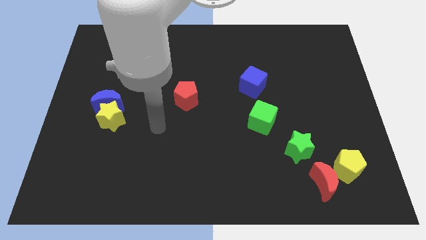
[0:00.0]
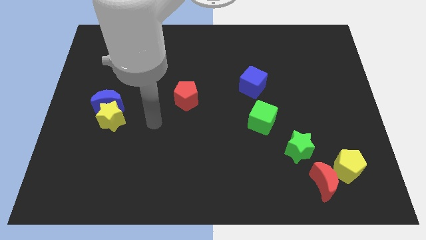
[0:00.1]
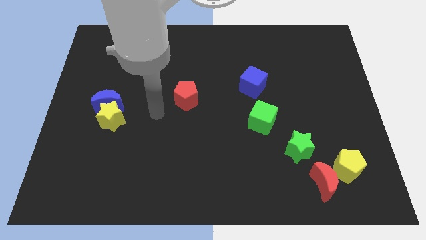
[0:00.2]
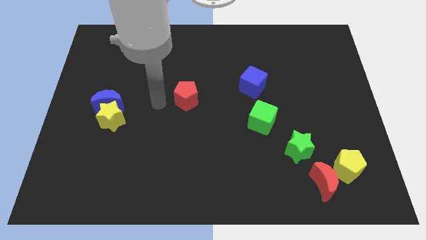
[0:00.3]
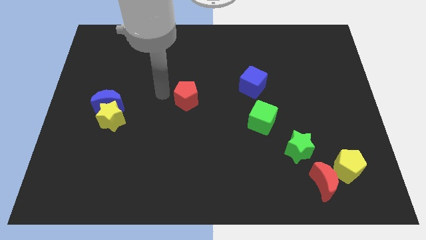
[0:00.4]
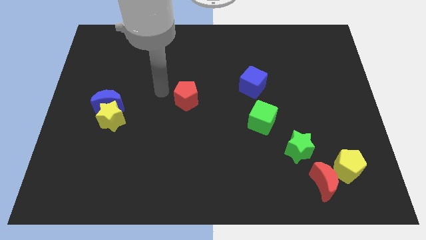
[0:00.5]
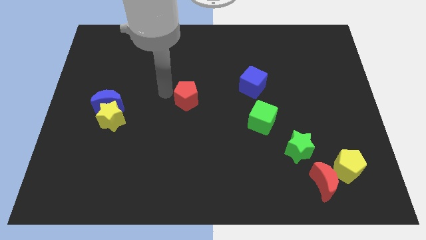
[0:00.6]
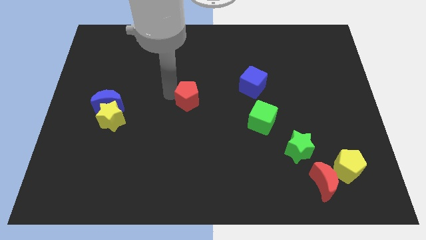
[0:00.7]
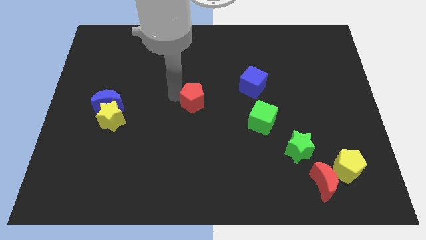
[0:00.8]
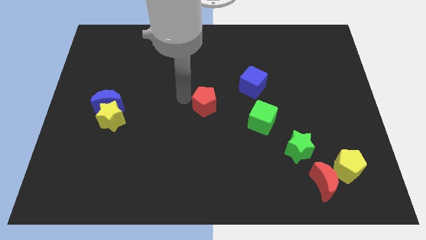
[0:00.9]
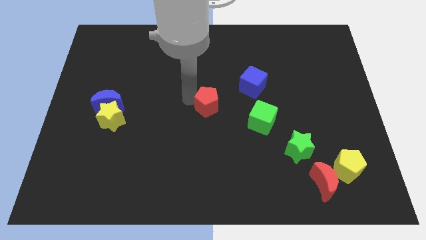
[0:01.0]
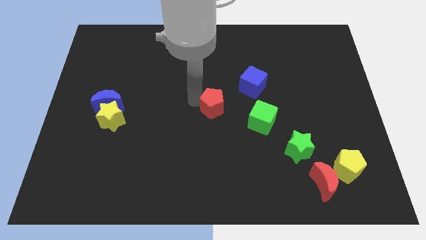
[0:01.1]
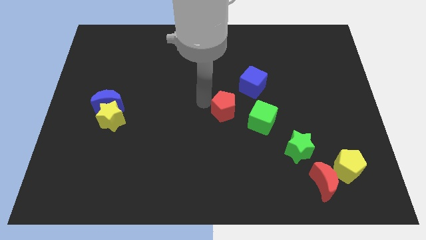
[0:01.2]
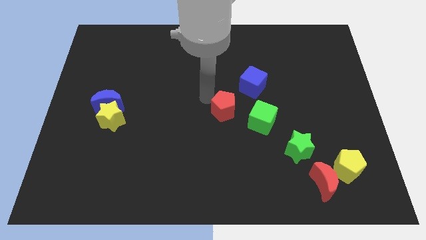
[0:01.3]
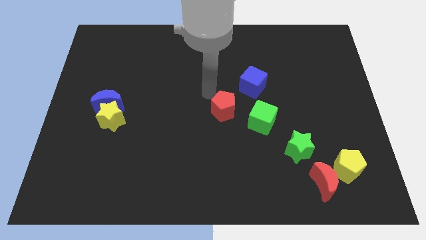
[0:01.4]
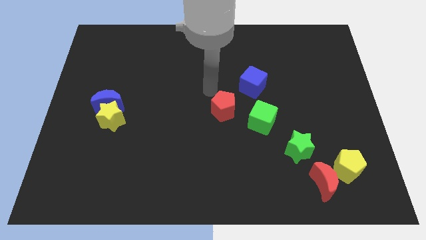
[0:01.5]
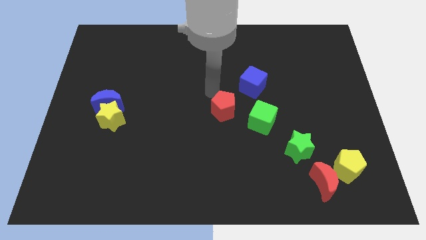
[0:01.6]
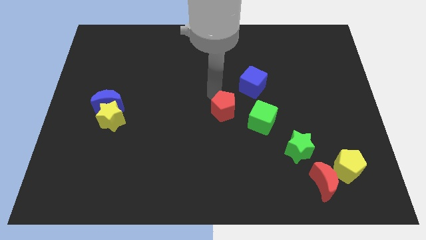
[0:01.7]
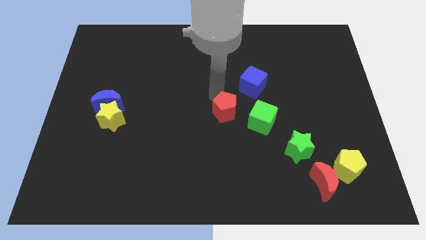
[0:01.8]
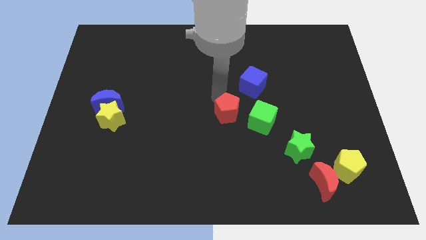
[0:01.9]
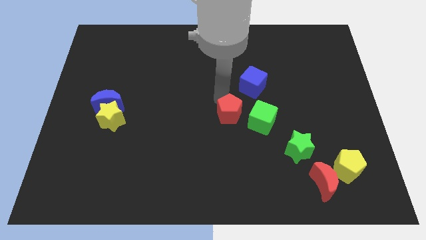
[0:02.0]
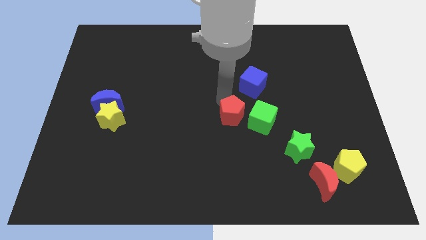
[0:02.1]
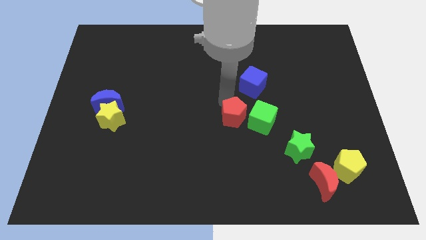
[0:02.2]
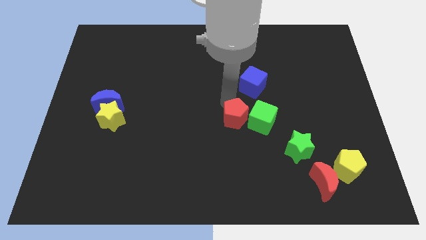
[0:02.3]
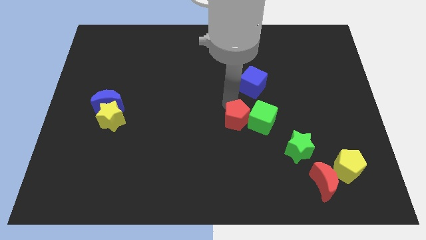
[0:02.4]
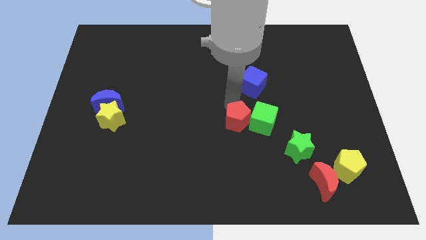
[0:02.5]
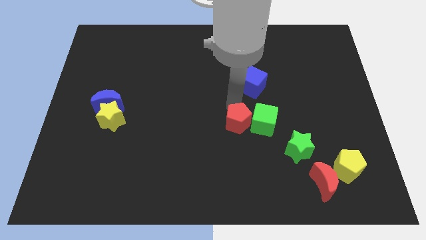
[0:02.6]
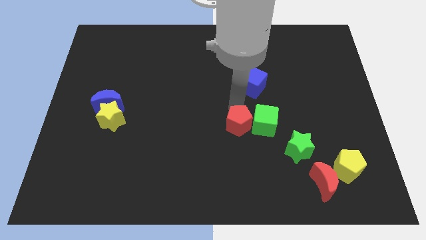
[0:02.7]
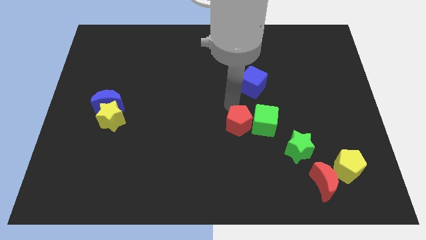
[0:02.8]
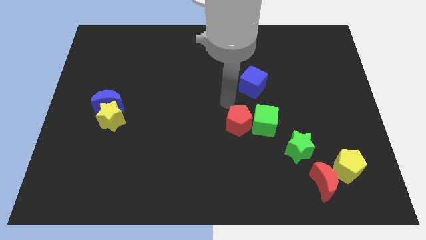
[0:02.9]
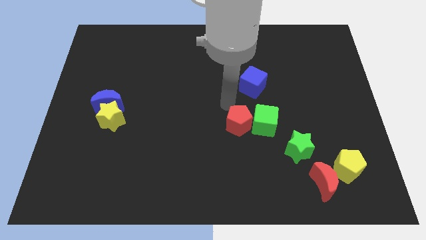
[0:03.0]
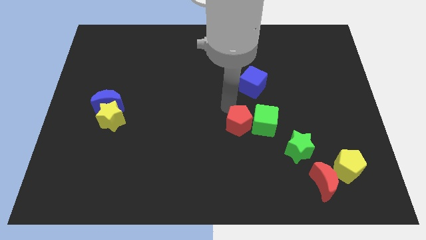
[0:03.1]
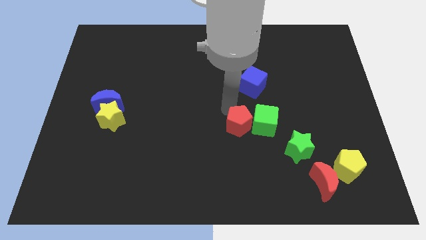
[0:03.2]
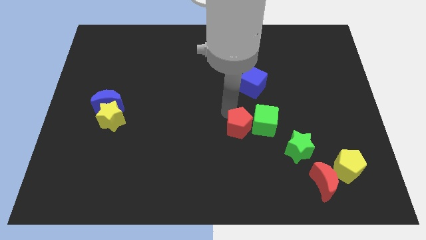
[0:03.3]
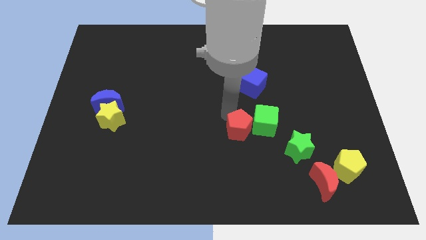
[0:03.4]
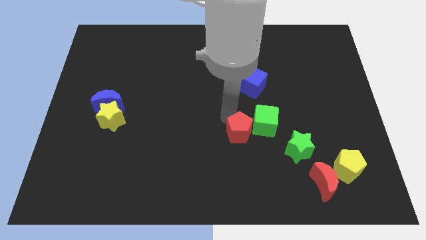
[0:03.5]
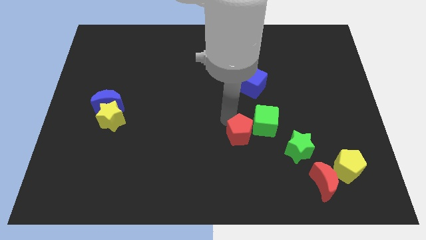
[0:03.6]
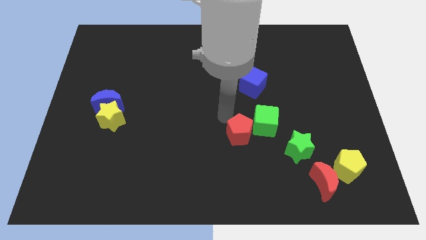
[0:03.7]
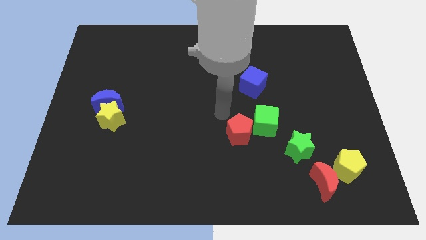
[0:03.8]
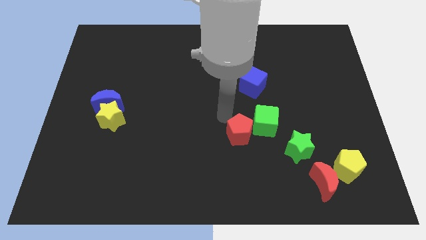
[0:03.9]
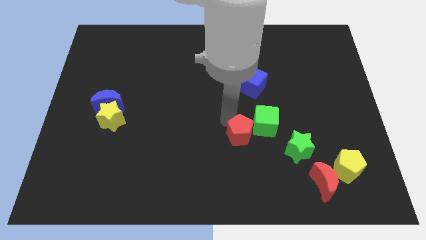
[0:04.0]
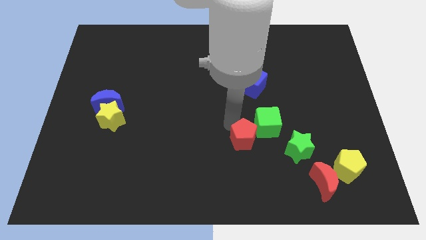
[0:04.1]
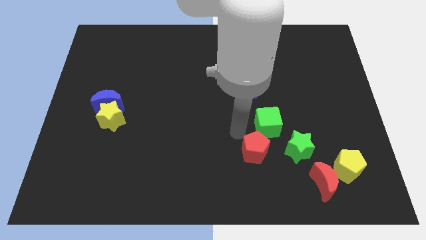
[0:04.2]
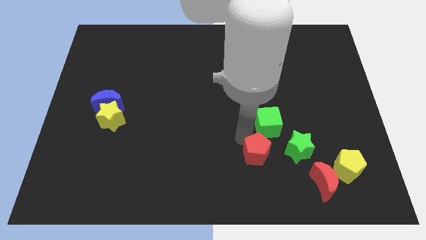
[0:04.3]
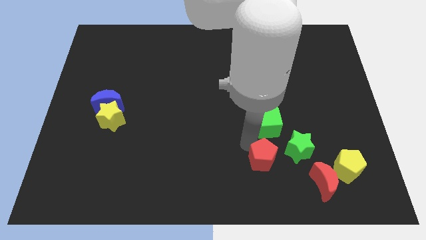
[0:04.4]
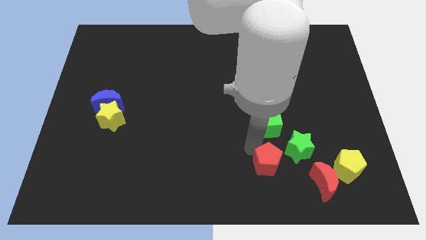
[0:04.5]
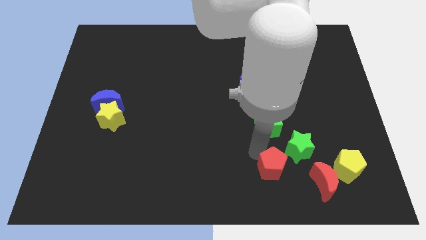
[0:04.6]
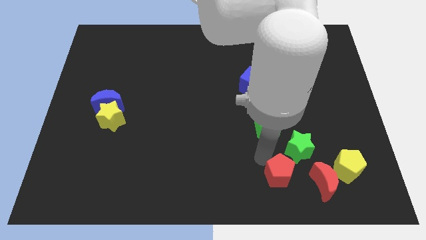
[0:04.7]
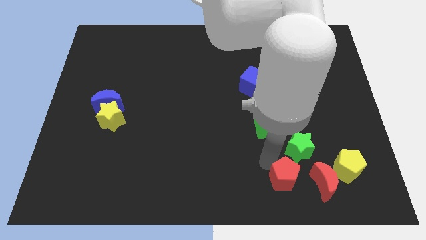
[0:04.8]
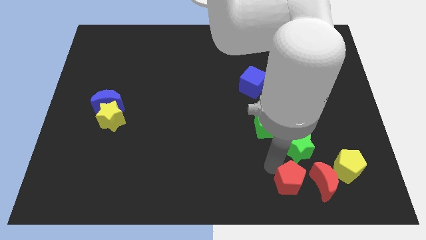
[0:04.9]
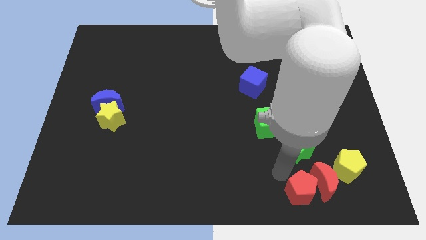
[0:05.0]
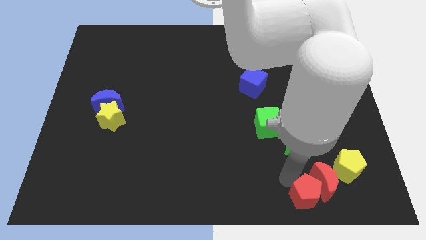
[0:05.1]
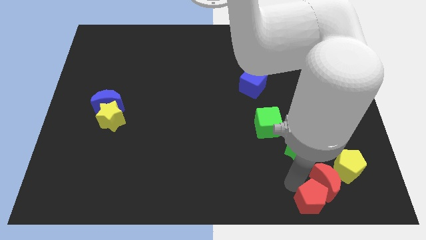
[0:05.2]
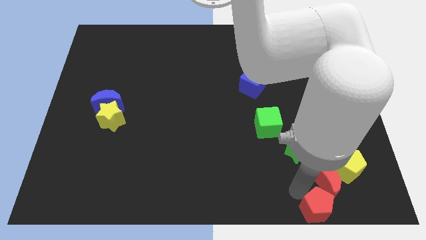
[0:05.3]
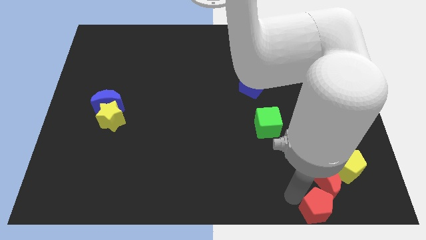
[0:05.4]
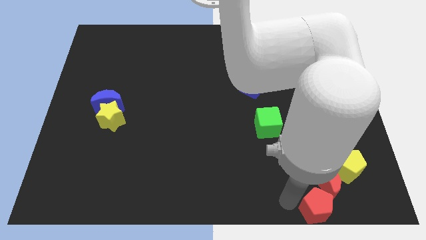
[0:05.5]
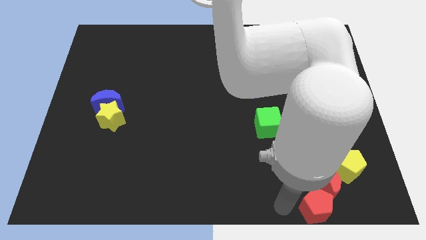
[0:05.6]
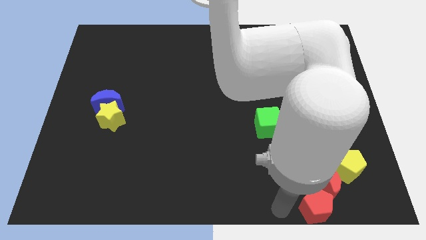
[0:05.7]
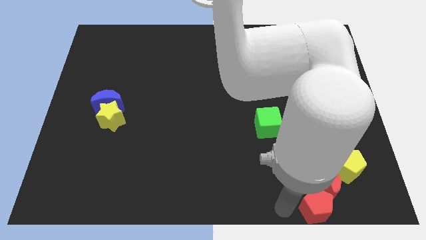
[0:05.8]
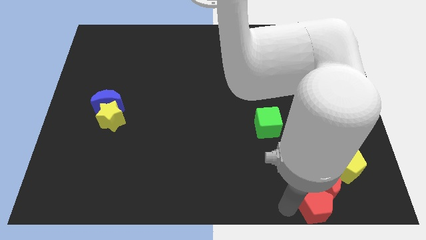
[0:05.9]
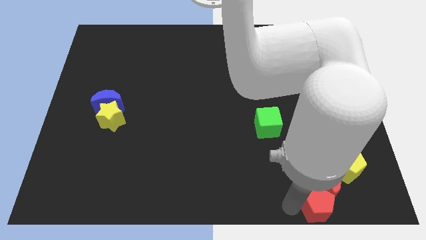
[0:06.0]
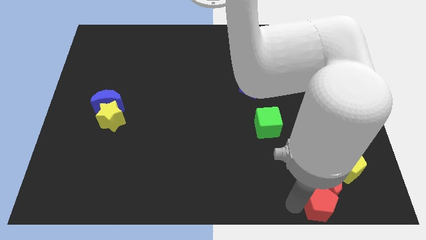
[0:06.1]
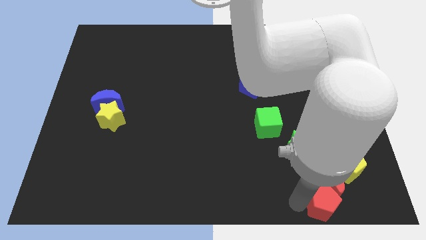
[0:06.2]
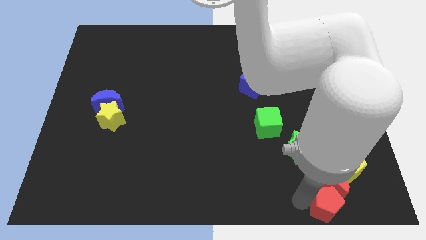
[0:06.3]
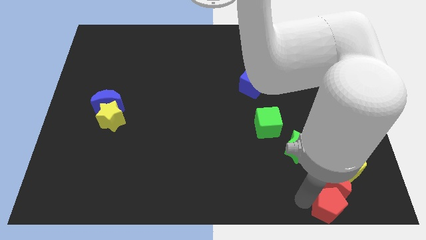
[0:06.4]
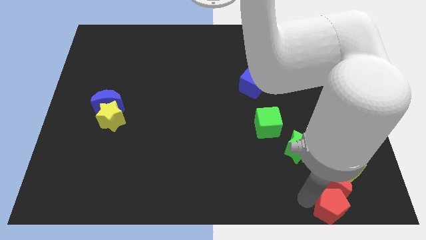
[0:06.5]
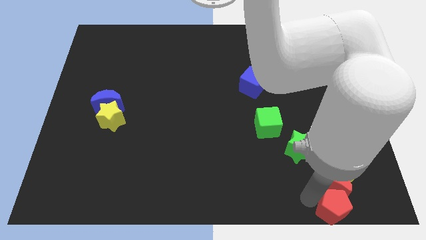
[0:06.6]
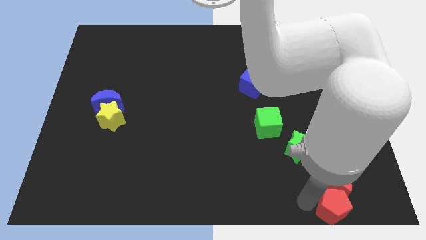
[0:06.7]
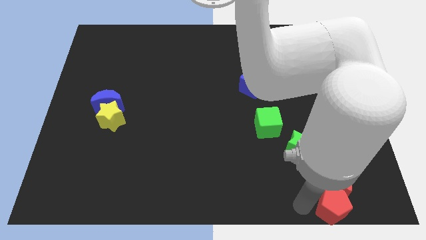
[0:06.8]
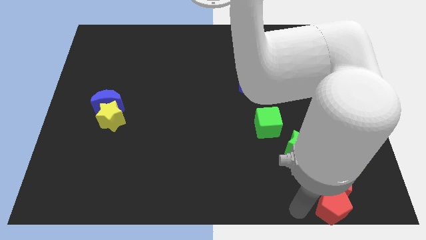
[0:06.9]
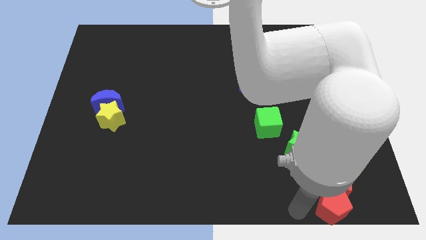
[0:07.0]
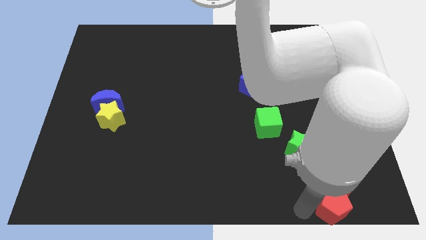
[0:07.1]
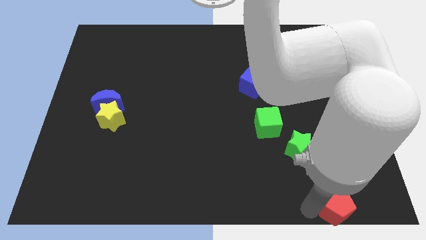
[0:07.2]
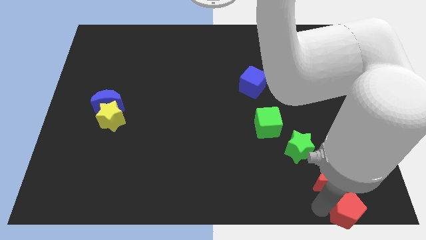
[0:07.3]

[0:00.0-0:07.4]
push the red pentagon to the bottom right of the board

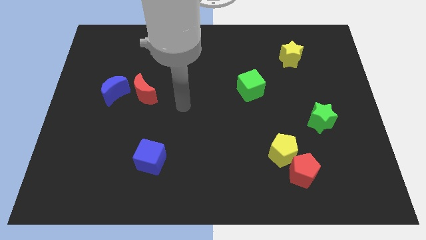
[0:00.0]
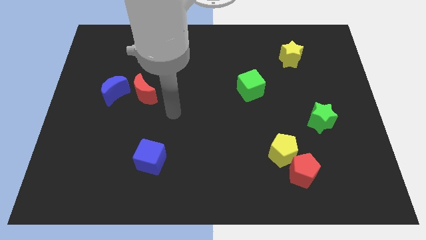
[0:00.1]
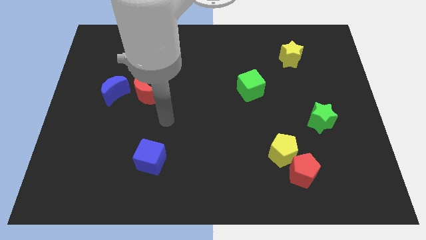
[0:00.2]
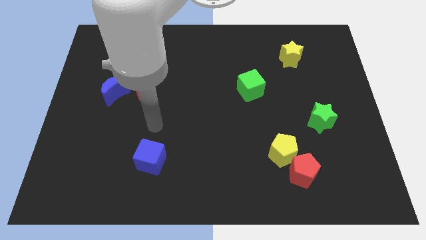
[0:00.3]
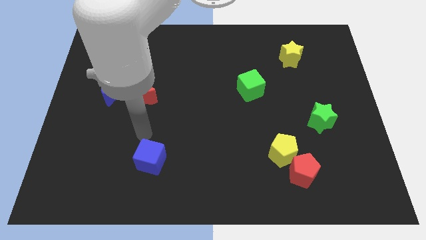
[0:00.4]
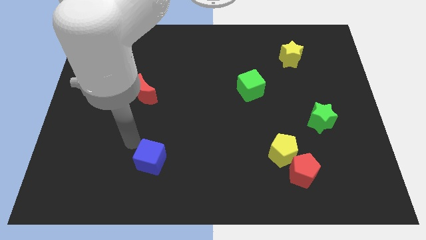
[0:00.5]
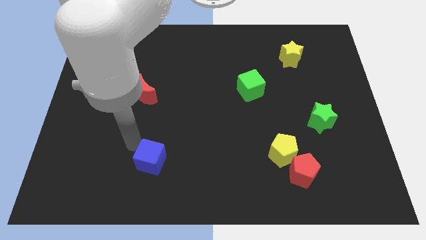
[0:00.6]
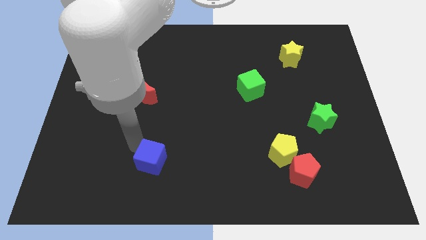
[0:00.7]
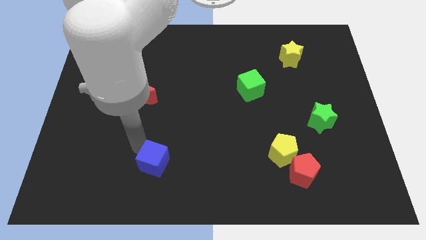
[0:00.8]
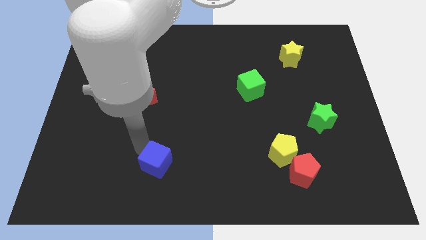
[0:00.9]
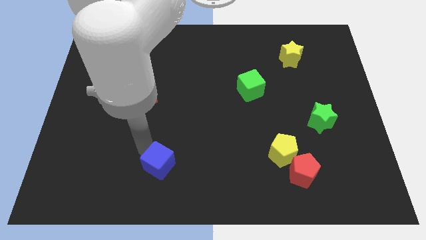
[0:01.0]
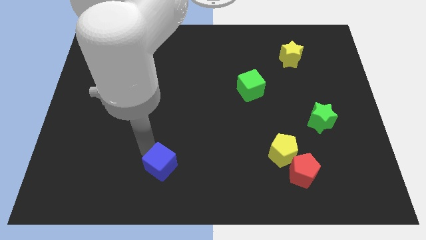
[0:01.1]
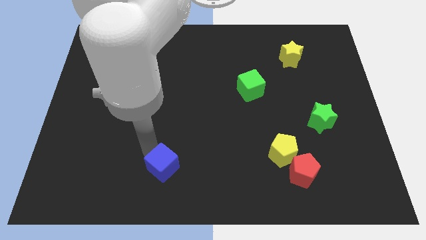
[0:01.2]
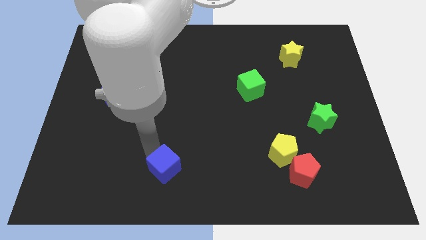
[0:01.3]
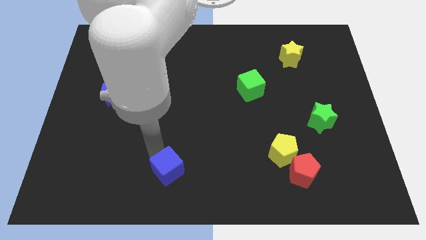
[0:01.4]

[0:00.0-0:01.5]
slide the blue cube to the bottom side
